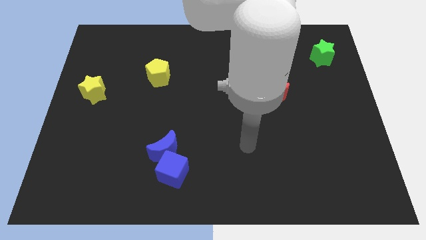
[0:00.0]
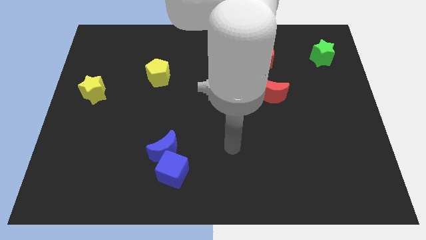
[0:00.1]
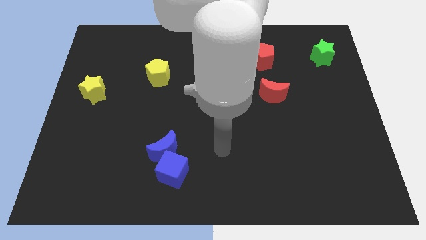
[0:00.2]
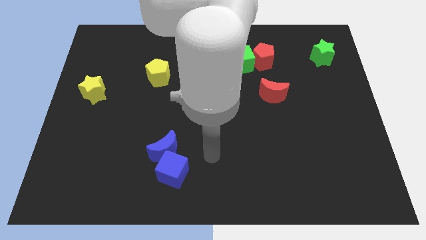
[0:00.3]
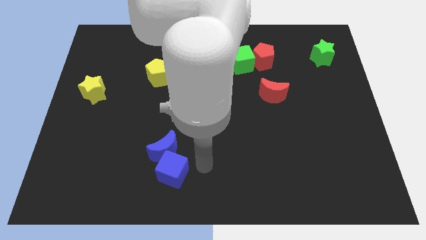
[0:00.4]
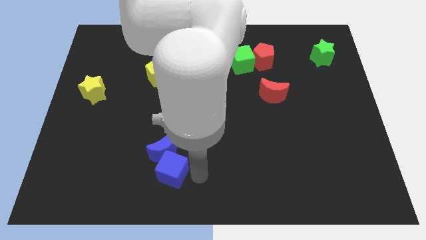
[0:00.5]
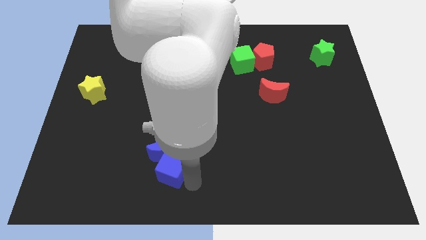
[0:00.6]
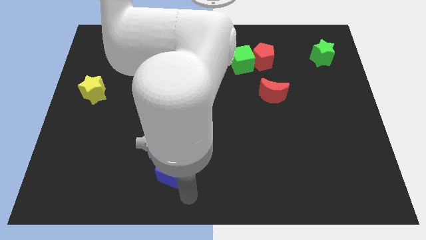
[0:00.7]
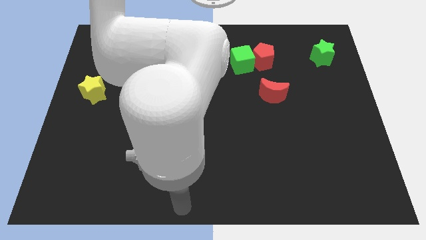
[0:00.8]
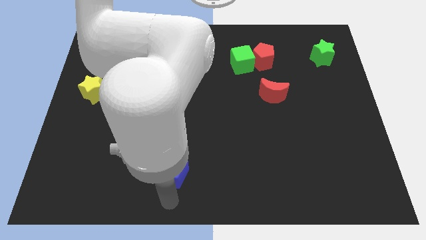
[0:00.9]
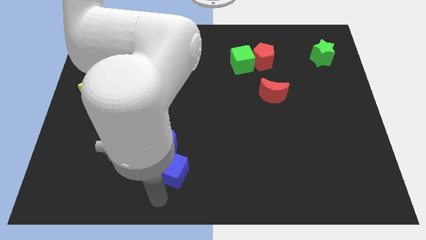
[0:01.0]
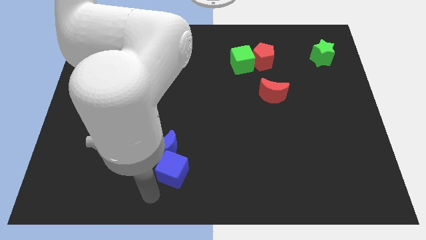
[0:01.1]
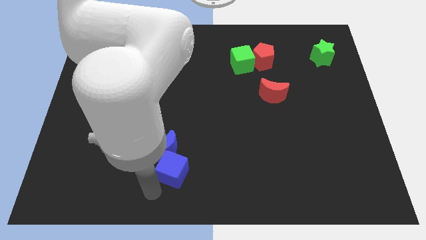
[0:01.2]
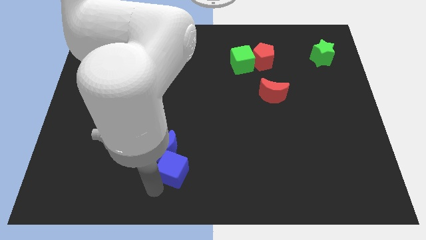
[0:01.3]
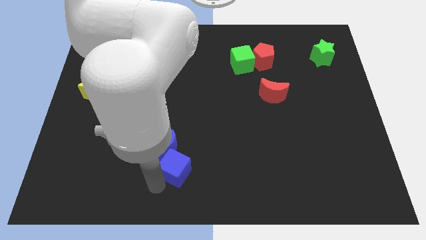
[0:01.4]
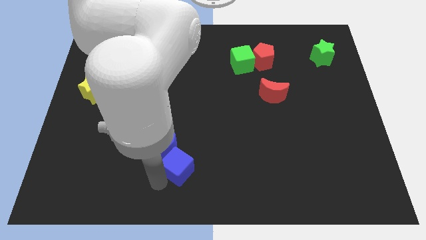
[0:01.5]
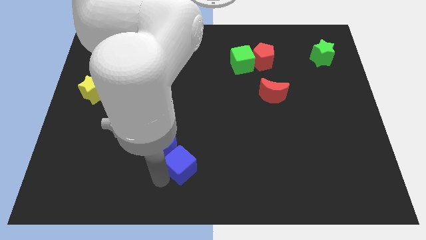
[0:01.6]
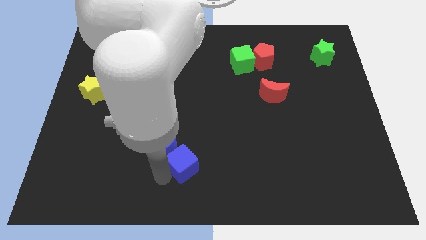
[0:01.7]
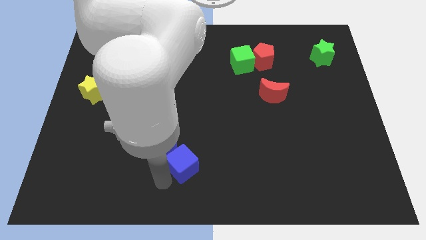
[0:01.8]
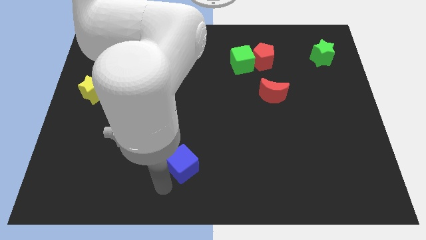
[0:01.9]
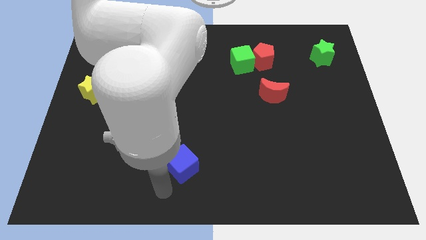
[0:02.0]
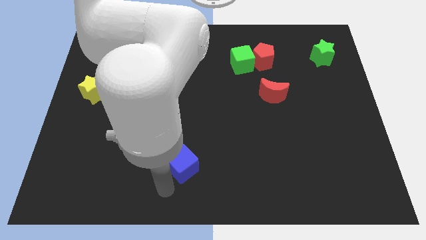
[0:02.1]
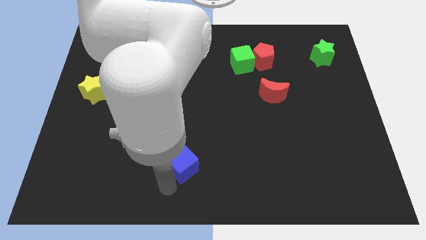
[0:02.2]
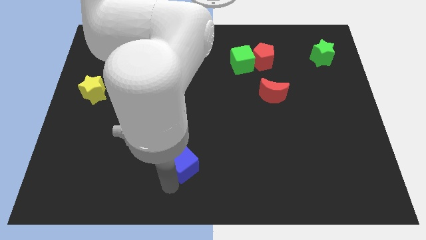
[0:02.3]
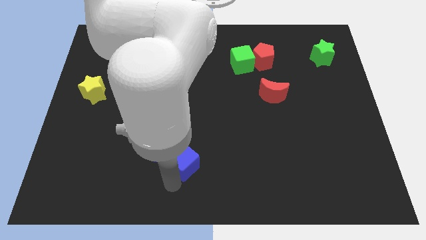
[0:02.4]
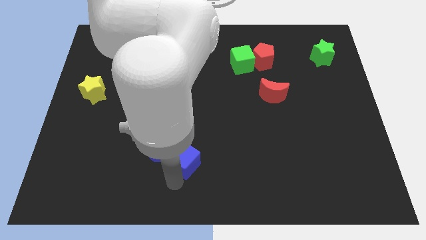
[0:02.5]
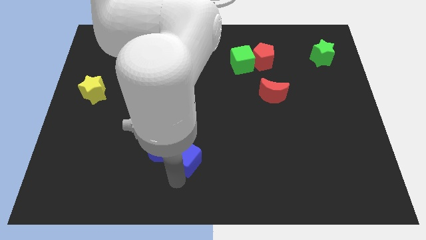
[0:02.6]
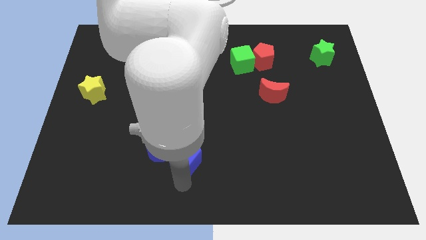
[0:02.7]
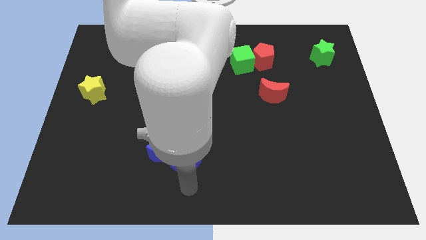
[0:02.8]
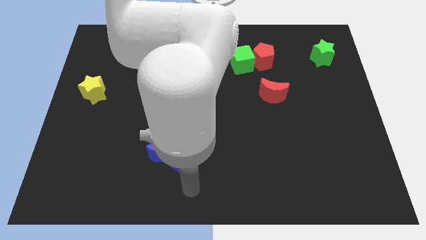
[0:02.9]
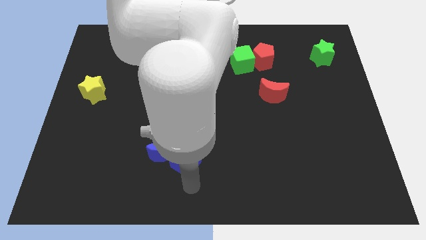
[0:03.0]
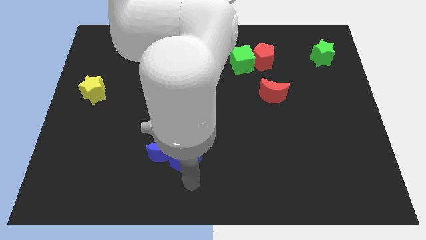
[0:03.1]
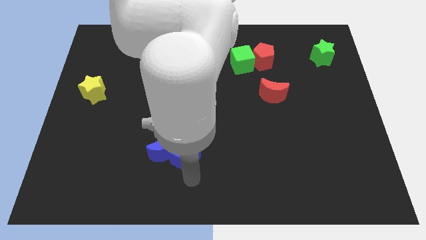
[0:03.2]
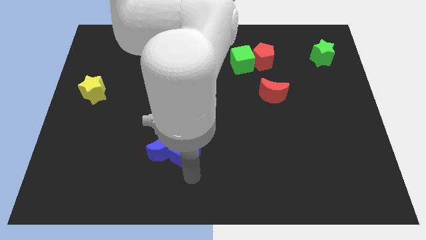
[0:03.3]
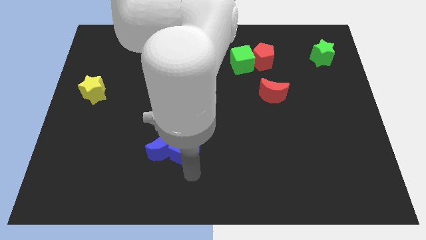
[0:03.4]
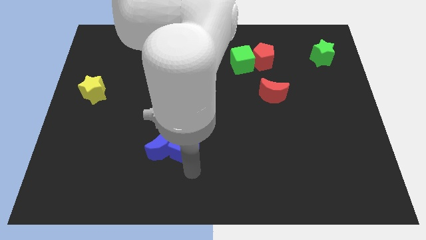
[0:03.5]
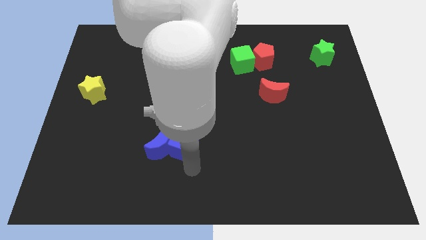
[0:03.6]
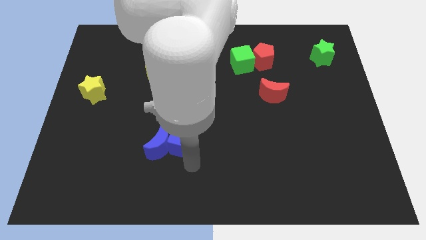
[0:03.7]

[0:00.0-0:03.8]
slide the blue cube upwards a little

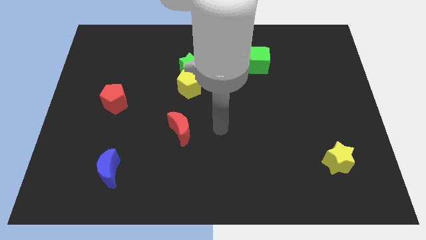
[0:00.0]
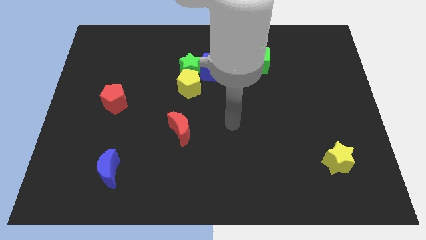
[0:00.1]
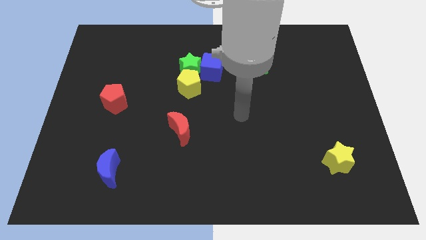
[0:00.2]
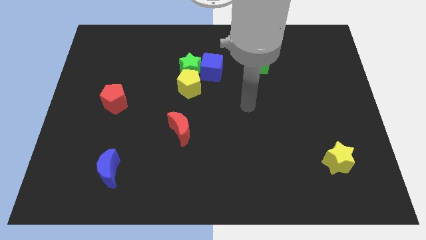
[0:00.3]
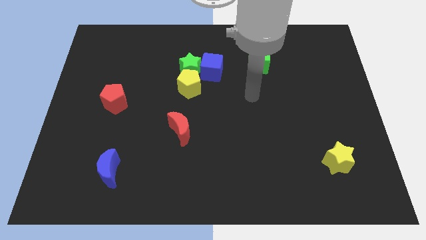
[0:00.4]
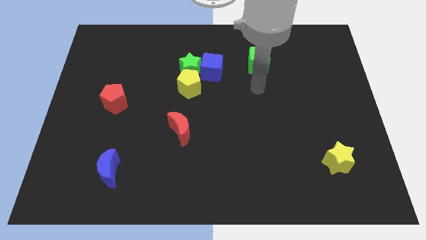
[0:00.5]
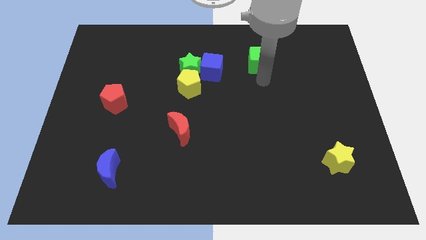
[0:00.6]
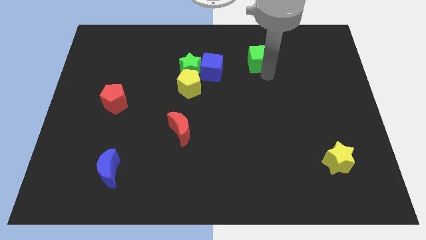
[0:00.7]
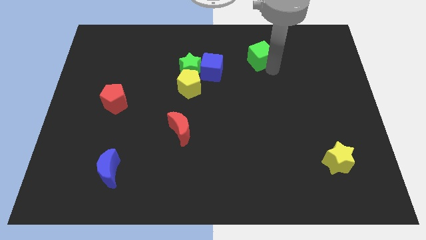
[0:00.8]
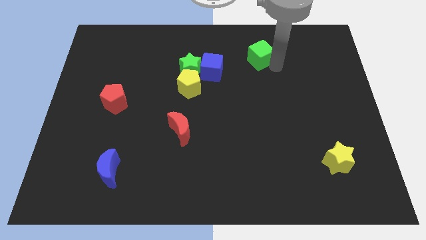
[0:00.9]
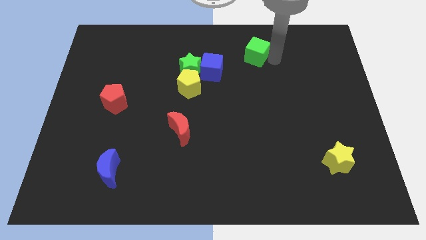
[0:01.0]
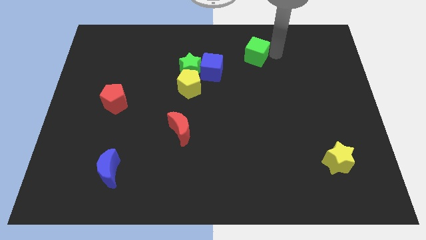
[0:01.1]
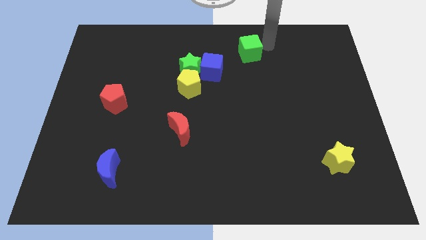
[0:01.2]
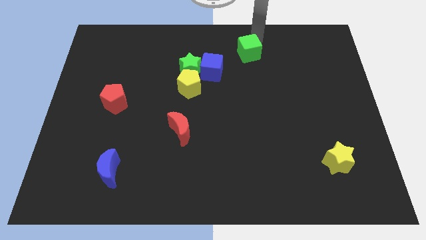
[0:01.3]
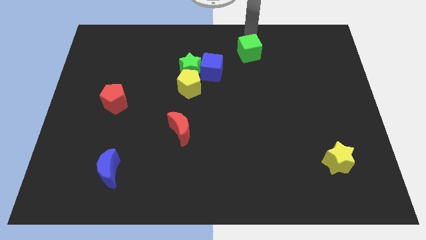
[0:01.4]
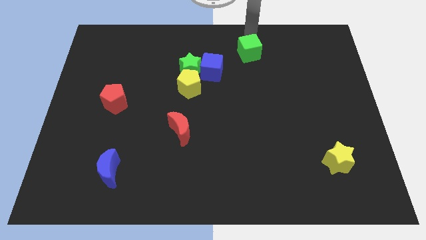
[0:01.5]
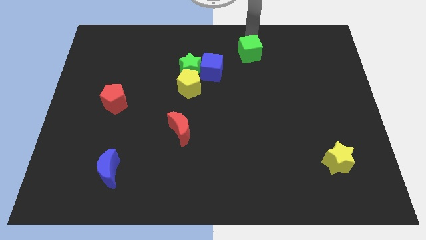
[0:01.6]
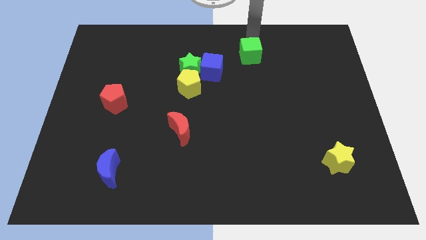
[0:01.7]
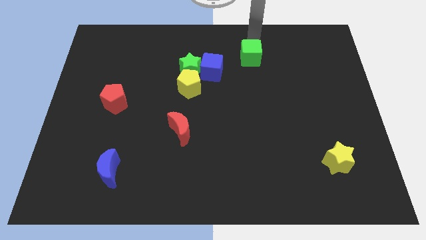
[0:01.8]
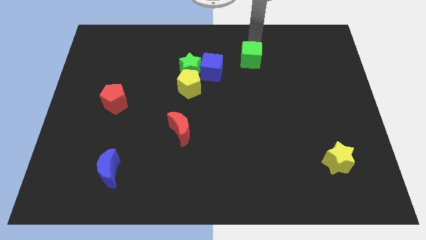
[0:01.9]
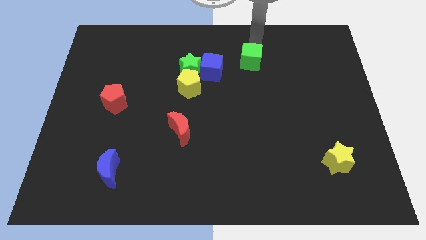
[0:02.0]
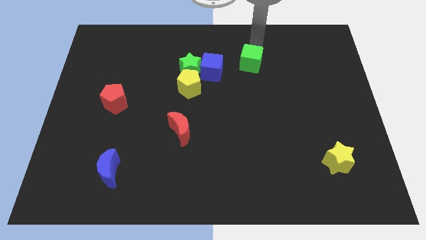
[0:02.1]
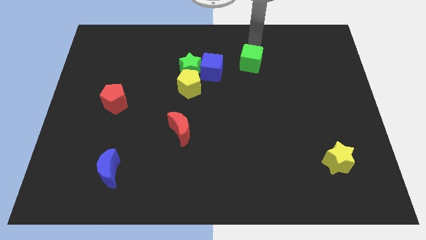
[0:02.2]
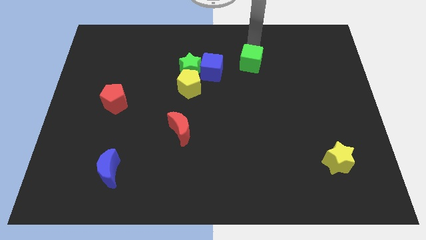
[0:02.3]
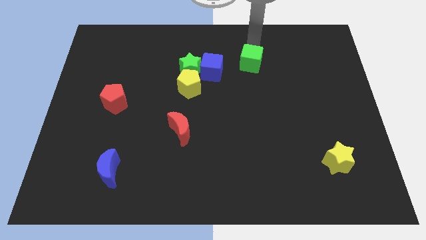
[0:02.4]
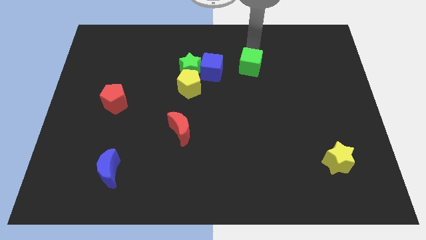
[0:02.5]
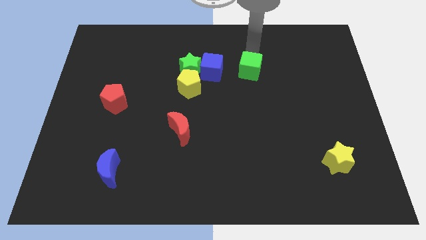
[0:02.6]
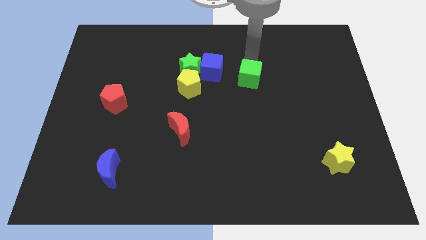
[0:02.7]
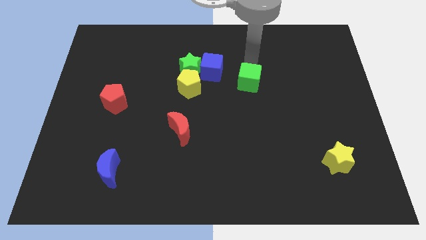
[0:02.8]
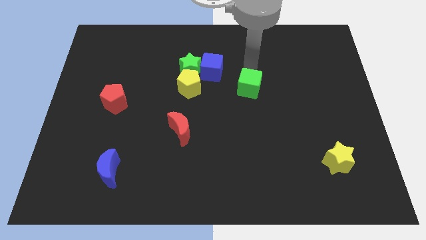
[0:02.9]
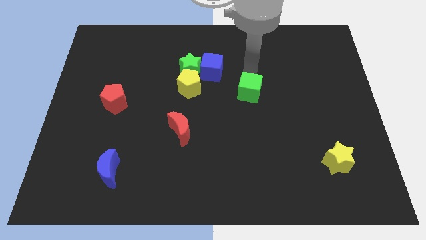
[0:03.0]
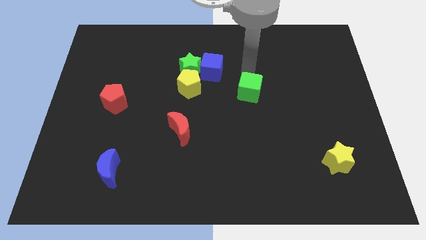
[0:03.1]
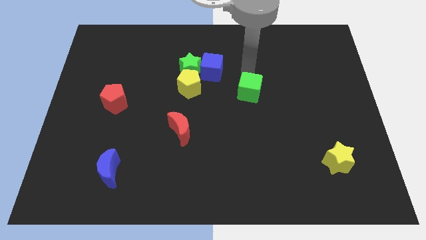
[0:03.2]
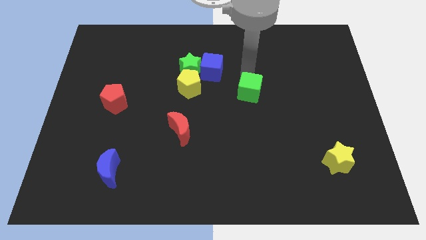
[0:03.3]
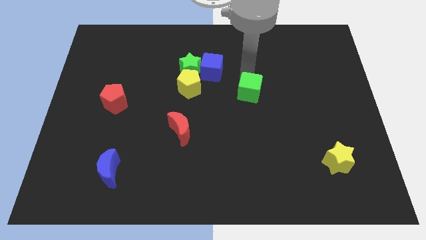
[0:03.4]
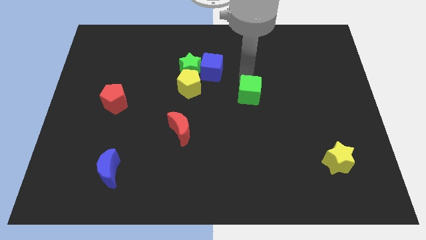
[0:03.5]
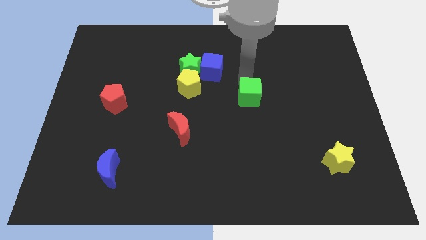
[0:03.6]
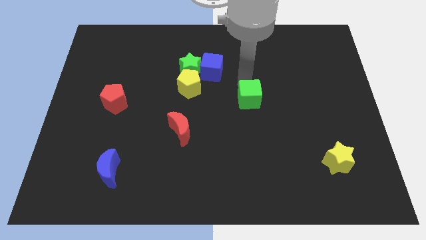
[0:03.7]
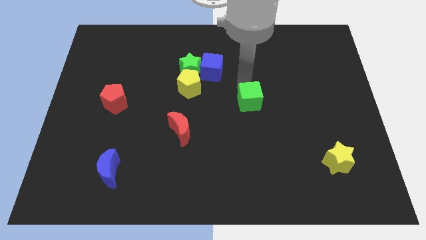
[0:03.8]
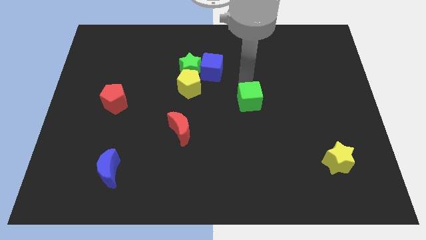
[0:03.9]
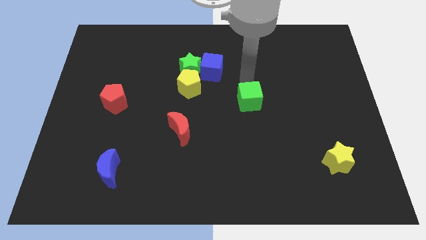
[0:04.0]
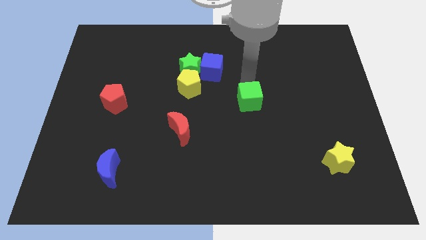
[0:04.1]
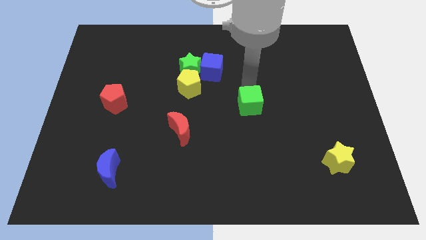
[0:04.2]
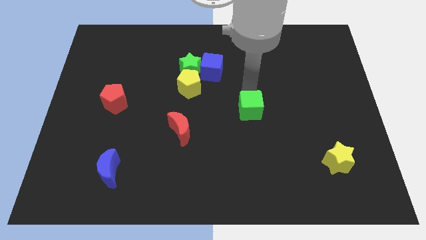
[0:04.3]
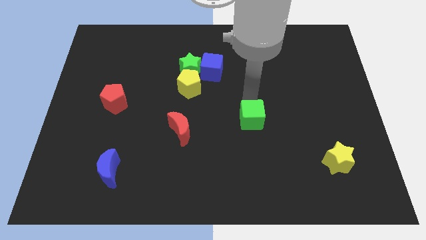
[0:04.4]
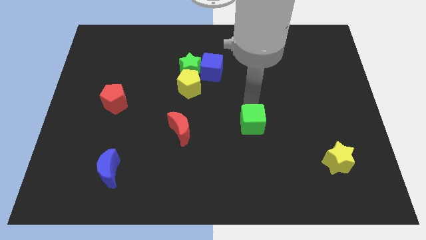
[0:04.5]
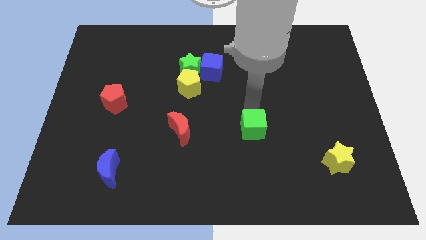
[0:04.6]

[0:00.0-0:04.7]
push the green cube down
